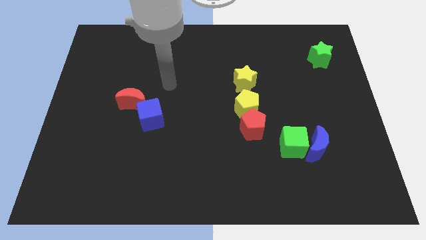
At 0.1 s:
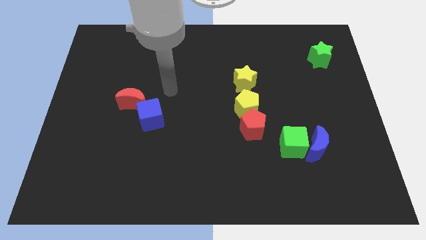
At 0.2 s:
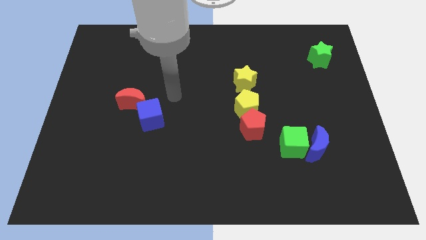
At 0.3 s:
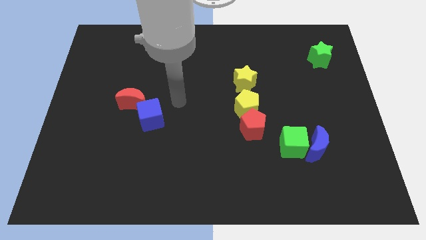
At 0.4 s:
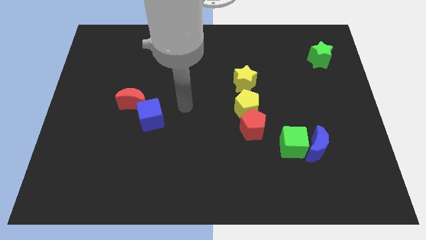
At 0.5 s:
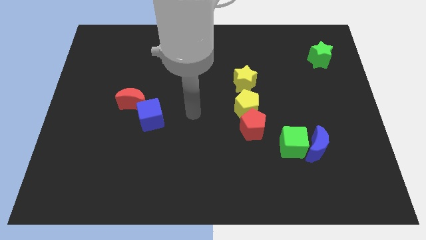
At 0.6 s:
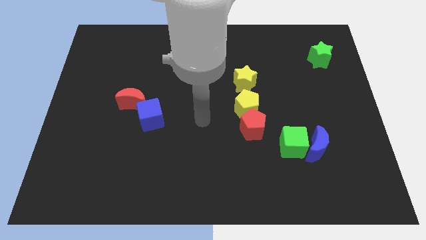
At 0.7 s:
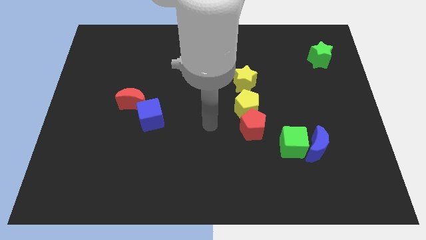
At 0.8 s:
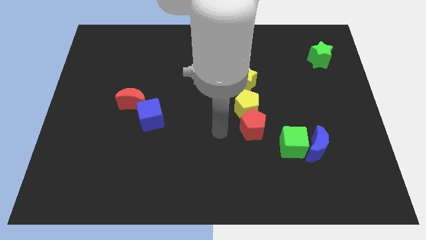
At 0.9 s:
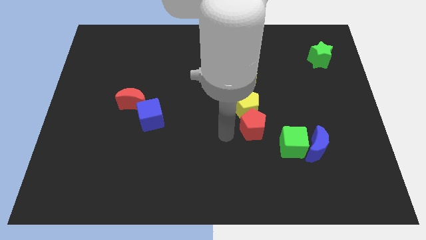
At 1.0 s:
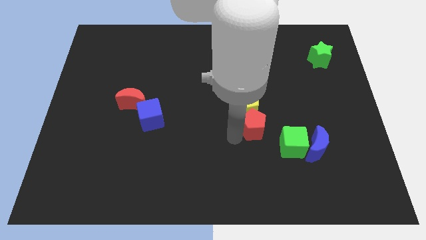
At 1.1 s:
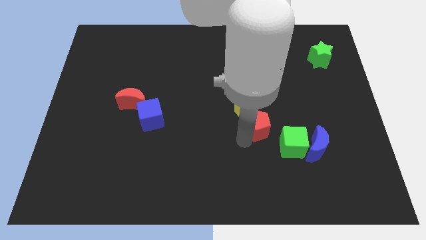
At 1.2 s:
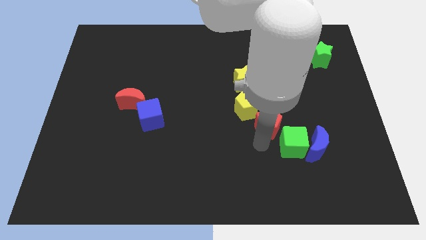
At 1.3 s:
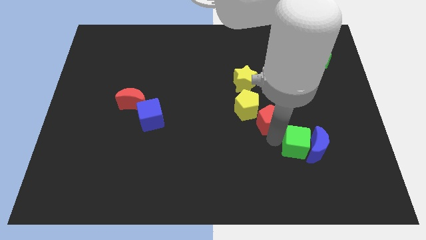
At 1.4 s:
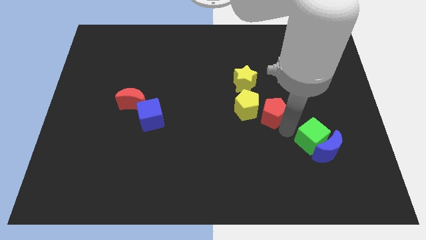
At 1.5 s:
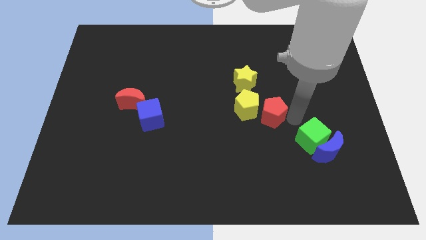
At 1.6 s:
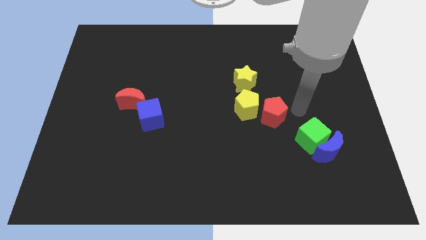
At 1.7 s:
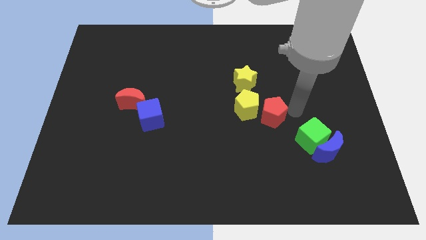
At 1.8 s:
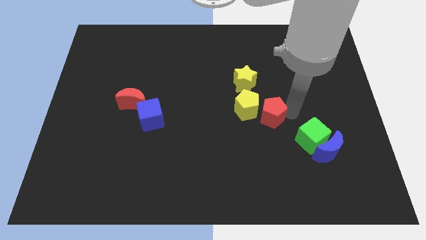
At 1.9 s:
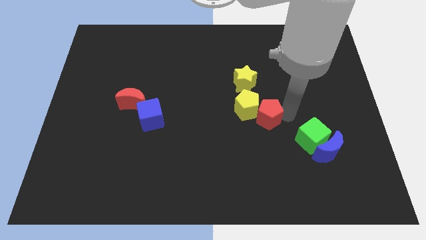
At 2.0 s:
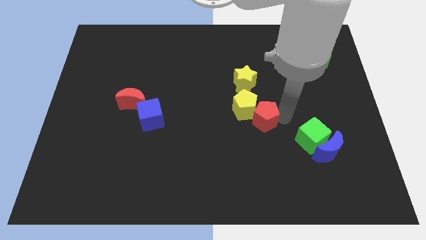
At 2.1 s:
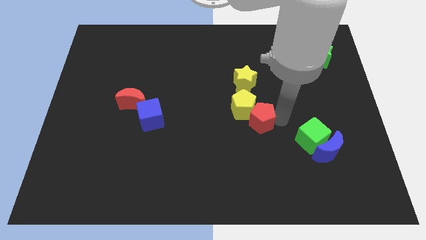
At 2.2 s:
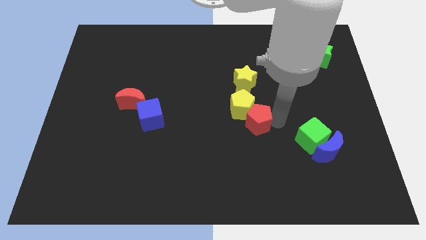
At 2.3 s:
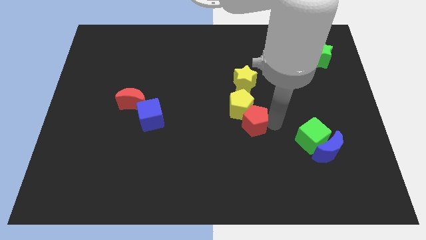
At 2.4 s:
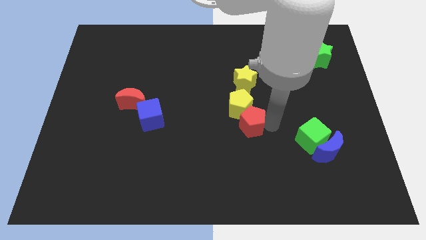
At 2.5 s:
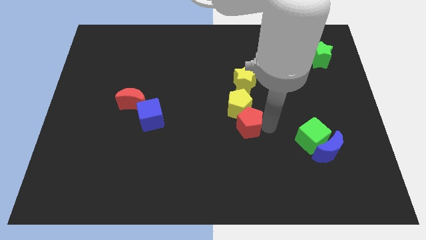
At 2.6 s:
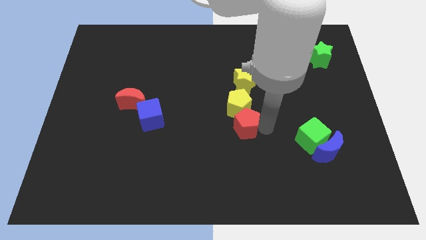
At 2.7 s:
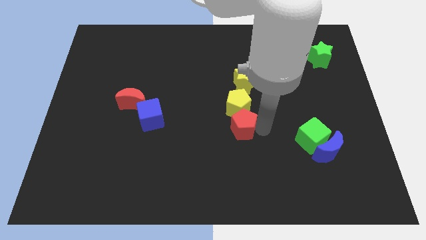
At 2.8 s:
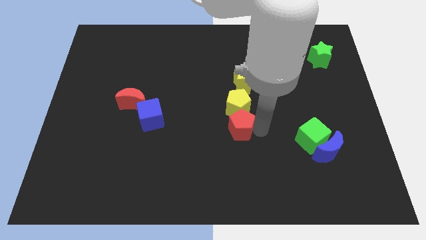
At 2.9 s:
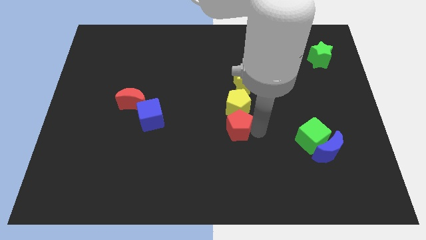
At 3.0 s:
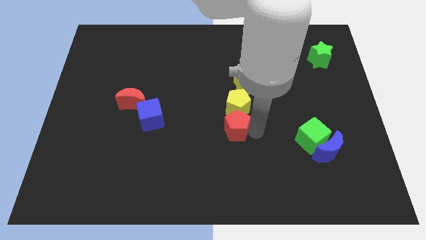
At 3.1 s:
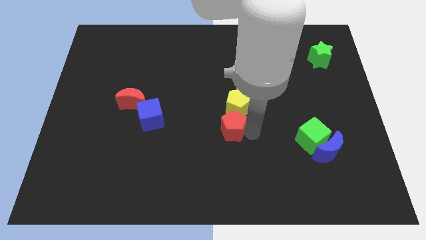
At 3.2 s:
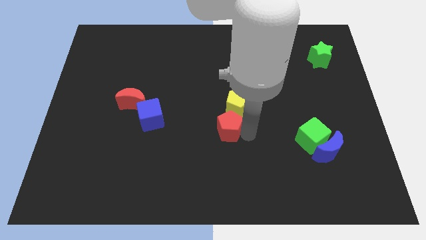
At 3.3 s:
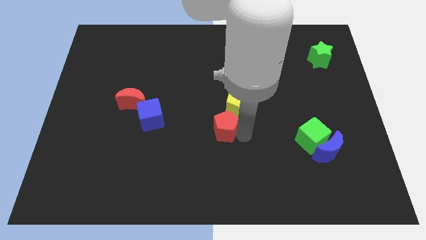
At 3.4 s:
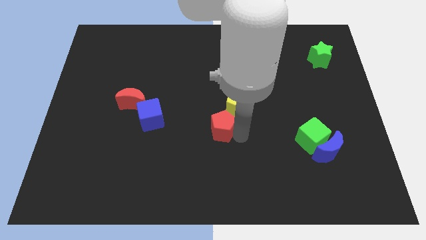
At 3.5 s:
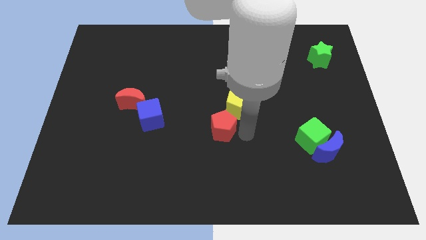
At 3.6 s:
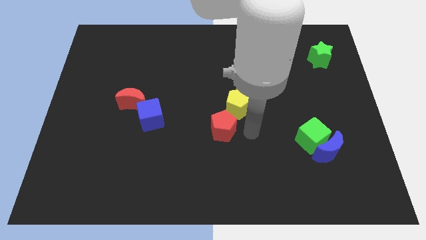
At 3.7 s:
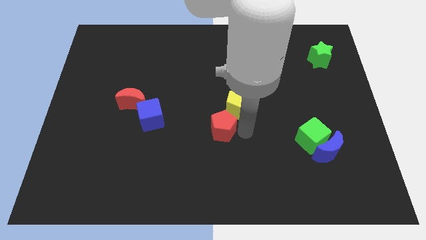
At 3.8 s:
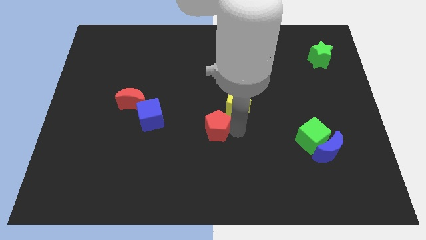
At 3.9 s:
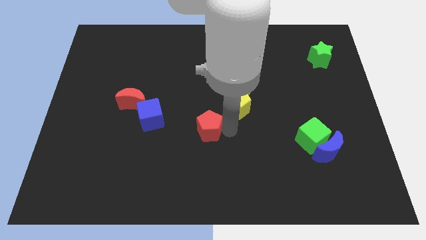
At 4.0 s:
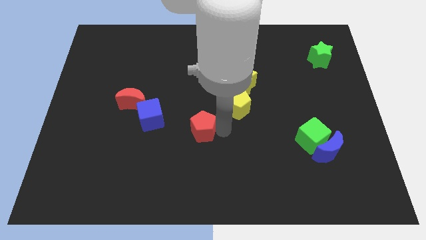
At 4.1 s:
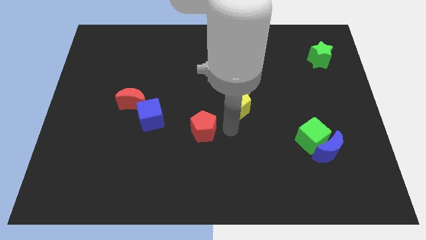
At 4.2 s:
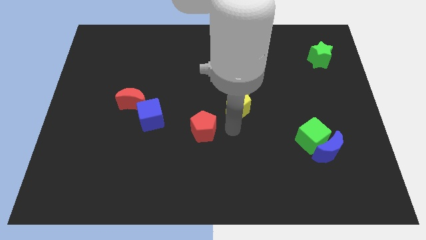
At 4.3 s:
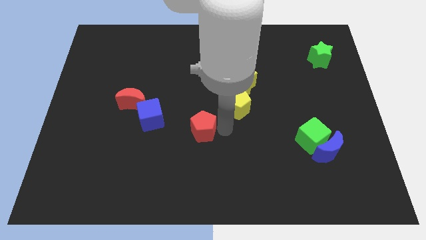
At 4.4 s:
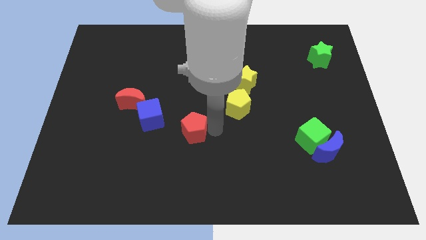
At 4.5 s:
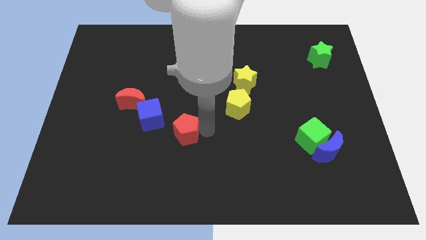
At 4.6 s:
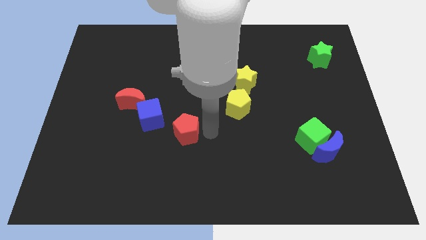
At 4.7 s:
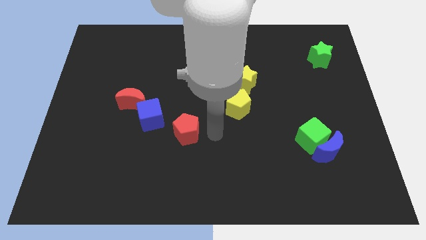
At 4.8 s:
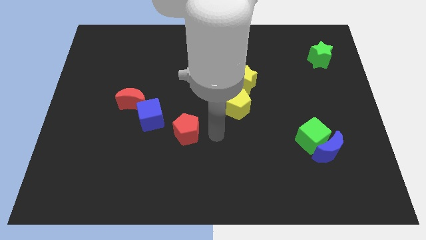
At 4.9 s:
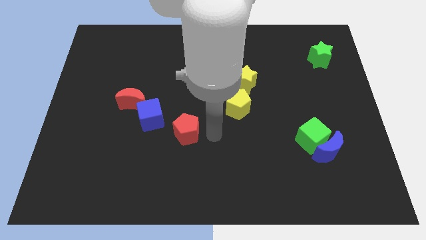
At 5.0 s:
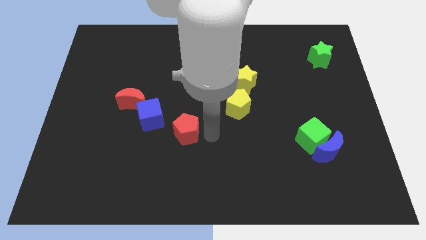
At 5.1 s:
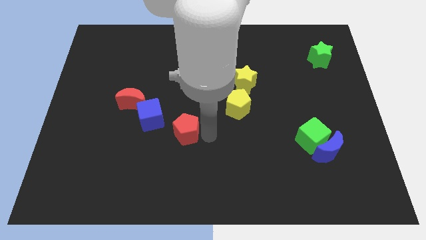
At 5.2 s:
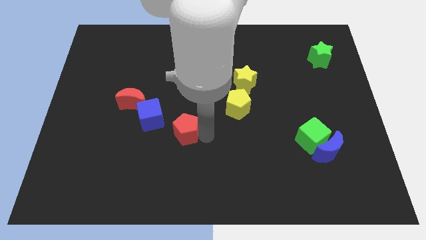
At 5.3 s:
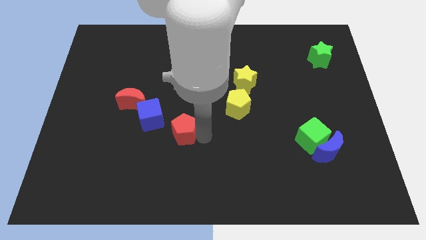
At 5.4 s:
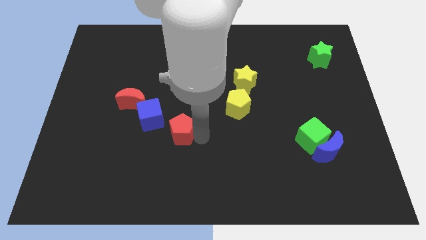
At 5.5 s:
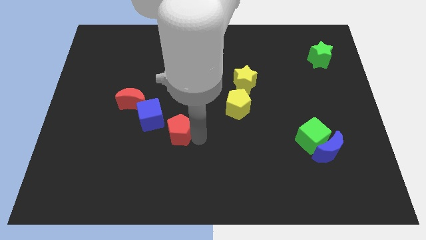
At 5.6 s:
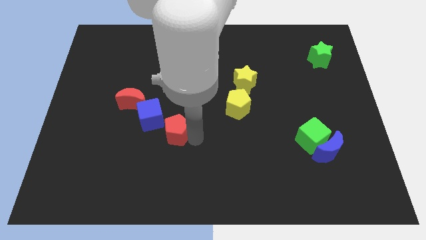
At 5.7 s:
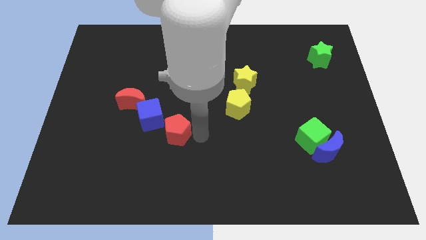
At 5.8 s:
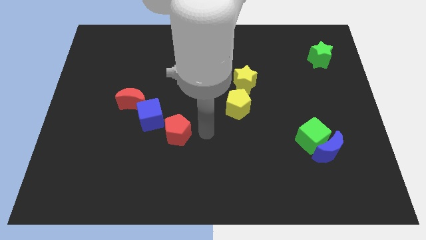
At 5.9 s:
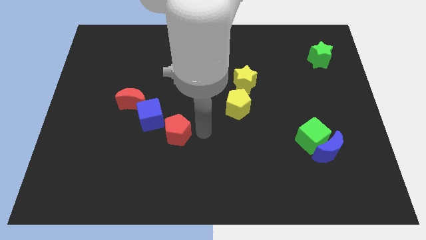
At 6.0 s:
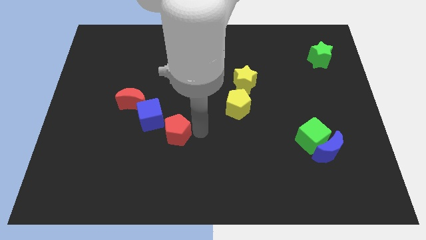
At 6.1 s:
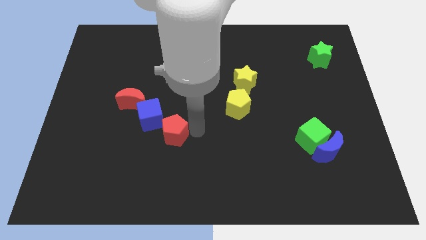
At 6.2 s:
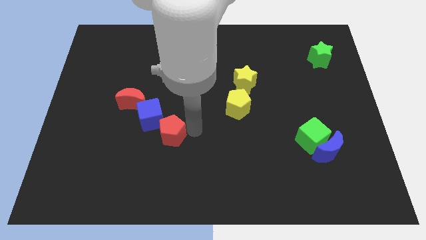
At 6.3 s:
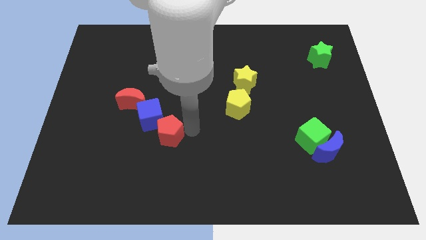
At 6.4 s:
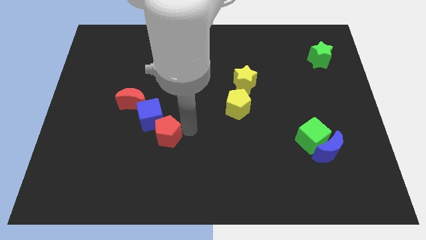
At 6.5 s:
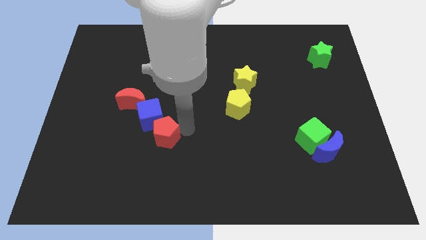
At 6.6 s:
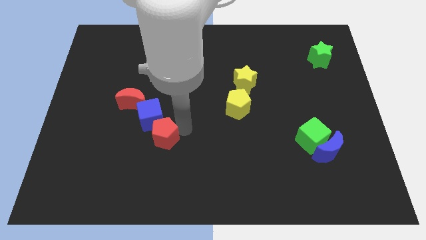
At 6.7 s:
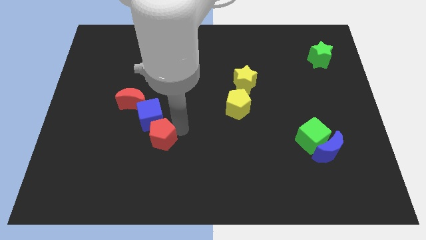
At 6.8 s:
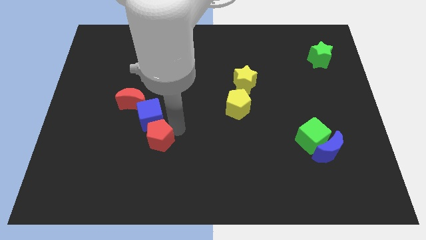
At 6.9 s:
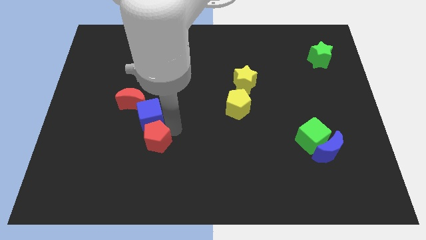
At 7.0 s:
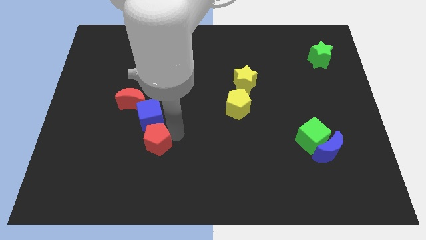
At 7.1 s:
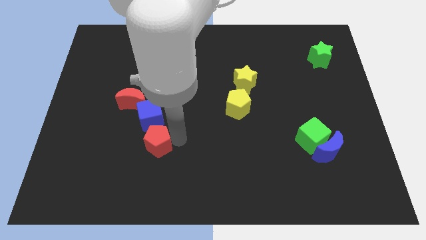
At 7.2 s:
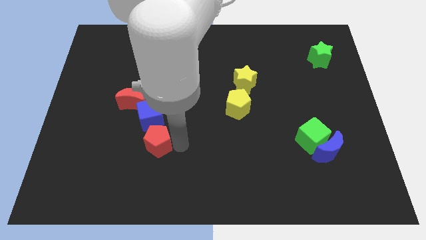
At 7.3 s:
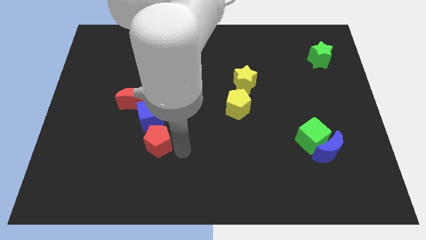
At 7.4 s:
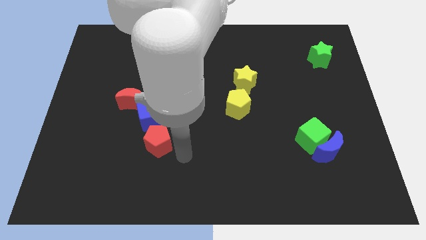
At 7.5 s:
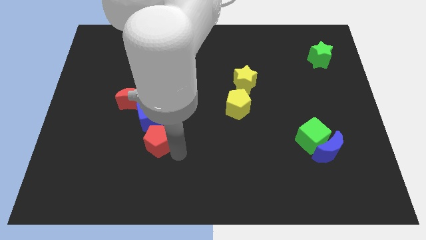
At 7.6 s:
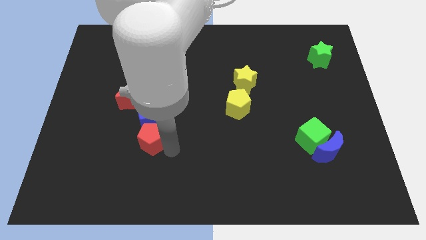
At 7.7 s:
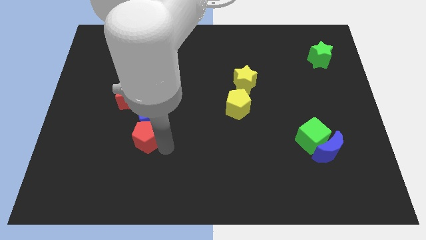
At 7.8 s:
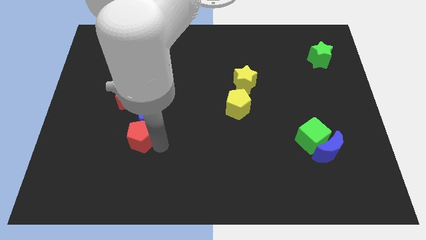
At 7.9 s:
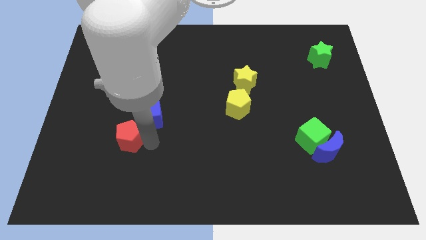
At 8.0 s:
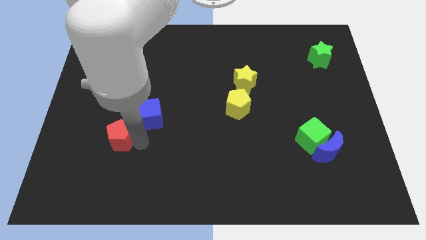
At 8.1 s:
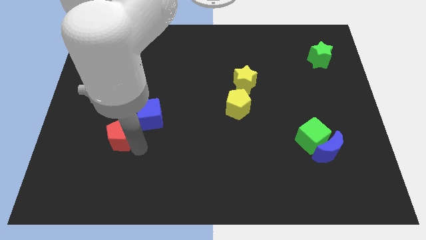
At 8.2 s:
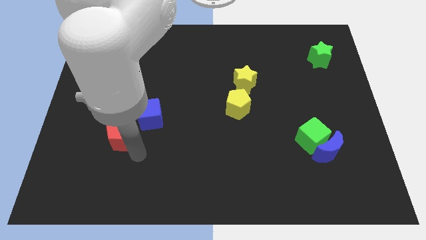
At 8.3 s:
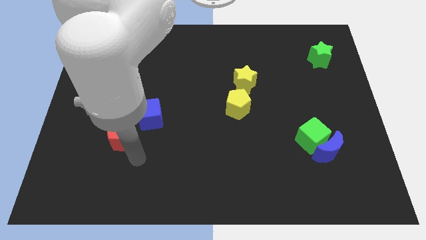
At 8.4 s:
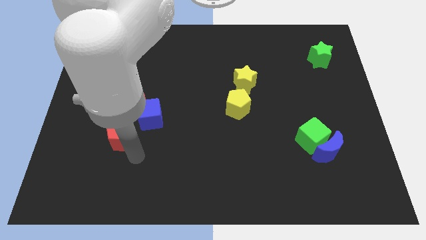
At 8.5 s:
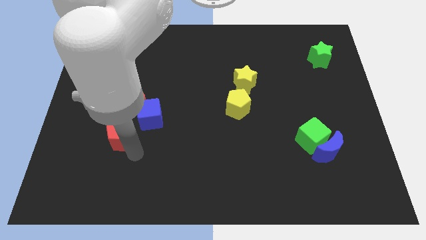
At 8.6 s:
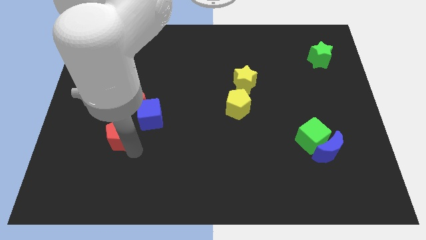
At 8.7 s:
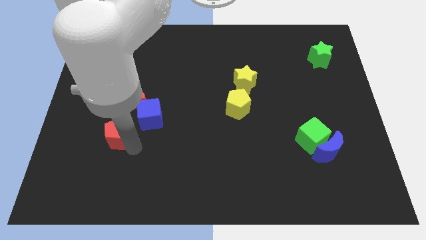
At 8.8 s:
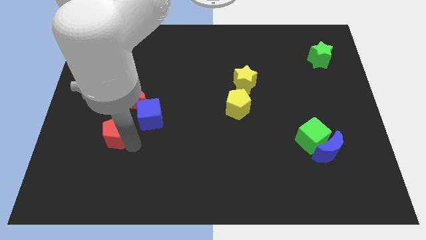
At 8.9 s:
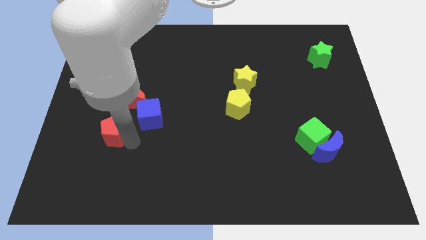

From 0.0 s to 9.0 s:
put the red pentagon diagonally down and to the left of the red moon
